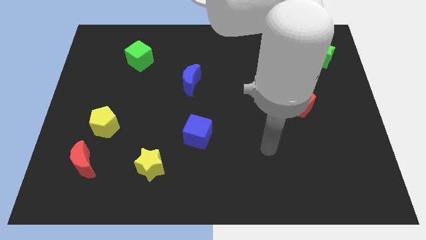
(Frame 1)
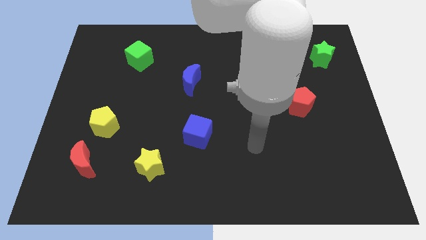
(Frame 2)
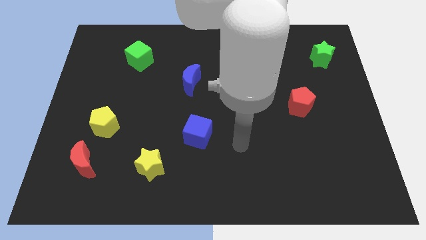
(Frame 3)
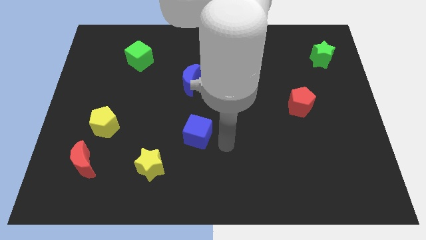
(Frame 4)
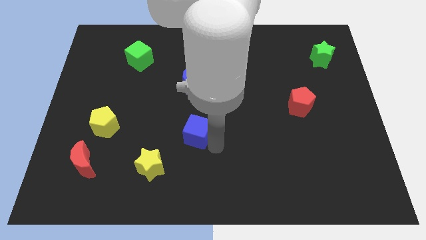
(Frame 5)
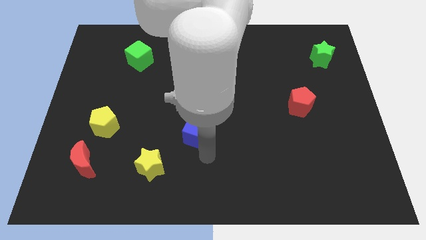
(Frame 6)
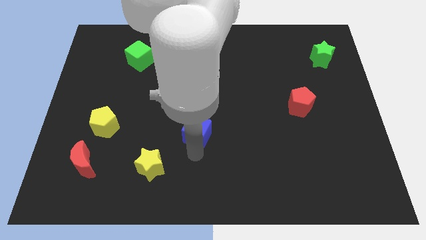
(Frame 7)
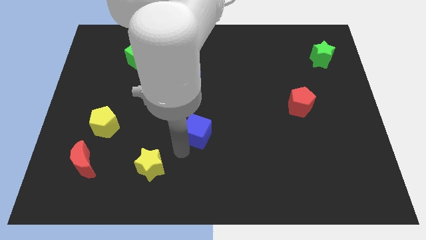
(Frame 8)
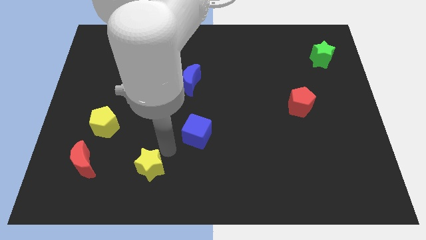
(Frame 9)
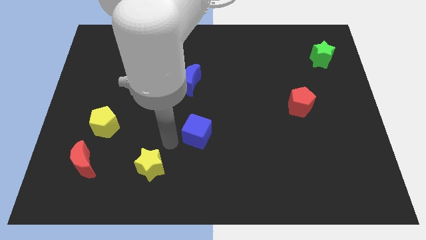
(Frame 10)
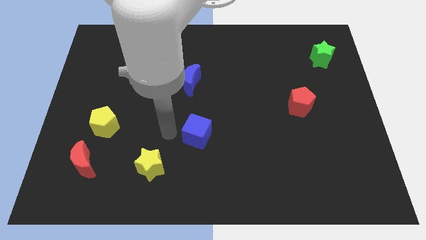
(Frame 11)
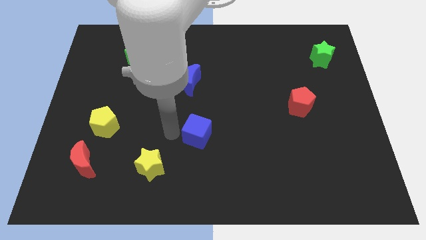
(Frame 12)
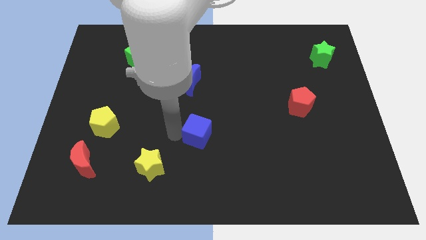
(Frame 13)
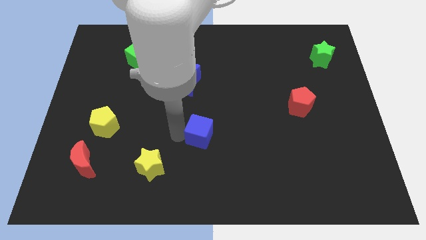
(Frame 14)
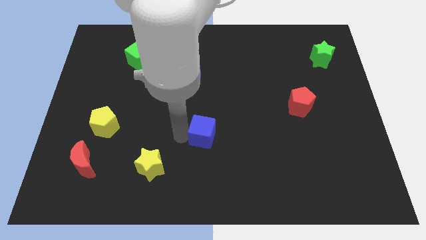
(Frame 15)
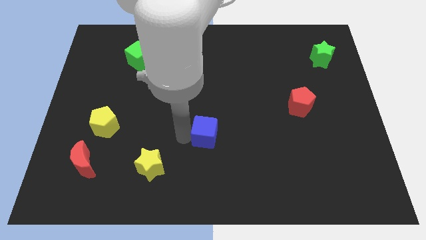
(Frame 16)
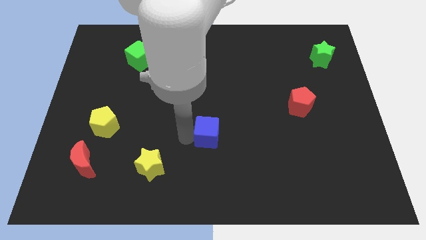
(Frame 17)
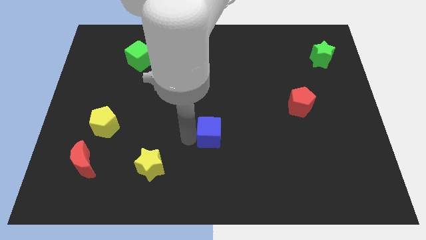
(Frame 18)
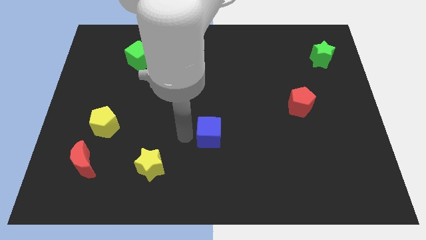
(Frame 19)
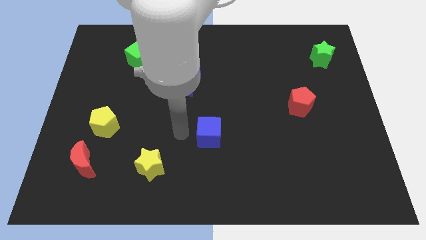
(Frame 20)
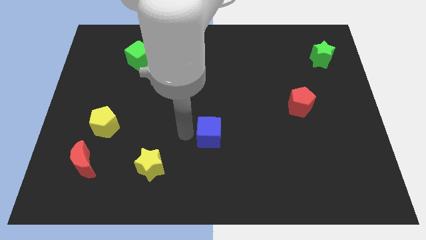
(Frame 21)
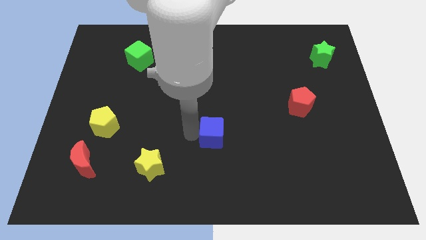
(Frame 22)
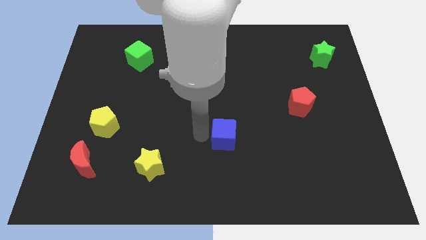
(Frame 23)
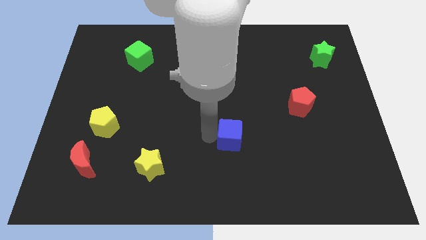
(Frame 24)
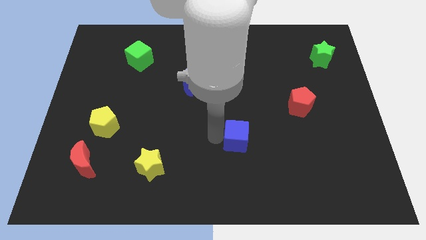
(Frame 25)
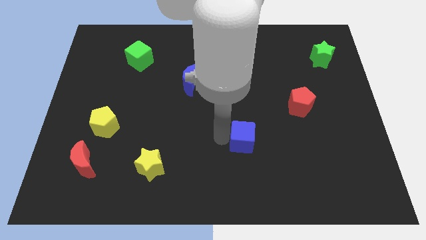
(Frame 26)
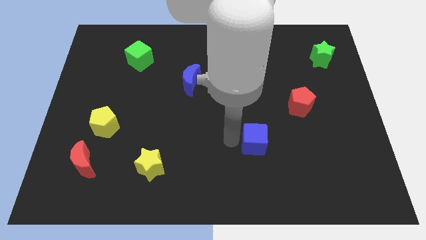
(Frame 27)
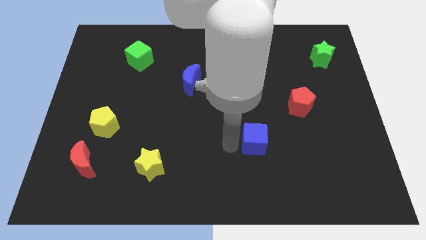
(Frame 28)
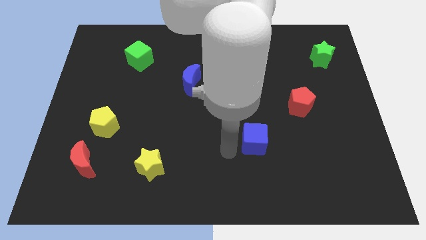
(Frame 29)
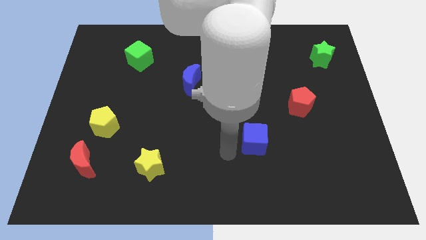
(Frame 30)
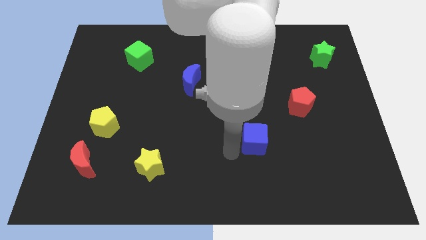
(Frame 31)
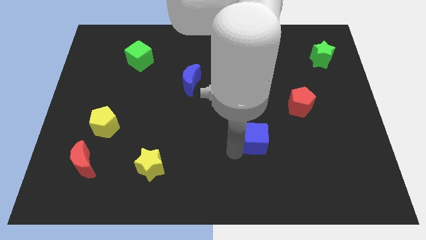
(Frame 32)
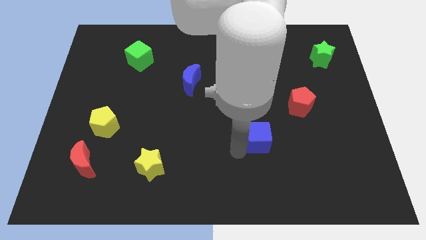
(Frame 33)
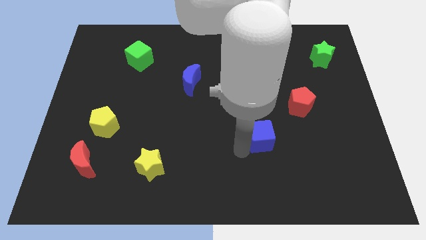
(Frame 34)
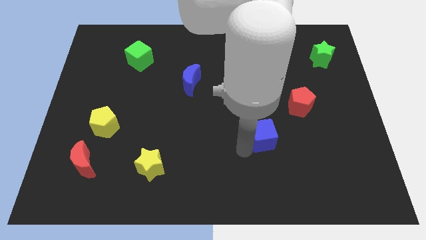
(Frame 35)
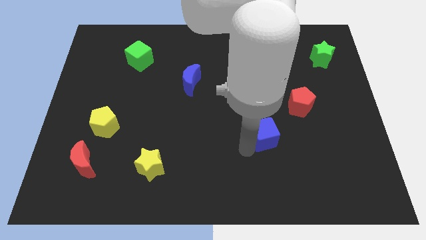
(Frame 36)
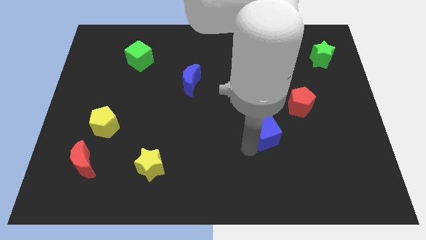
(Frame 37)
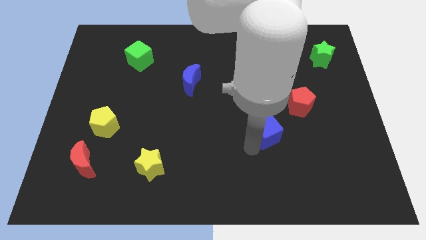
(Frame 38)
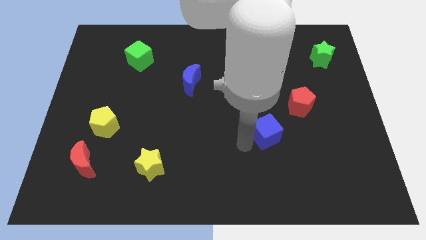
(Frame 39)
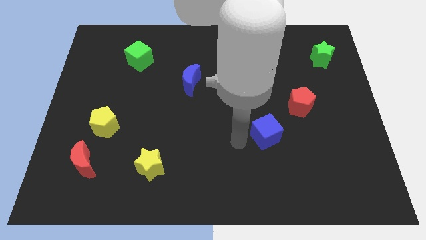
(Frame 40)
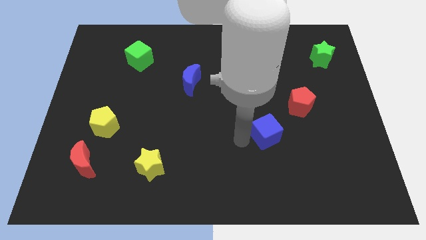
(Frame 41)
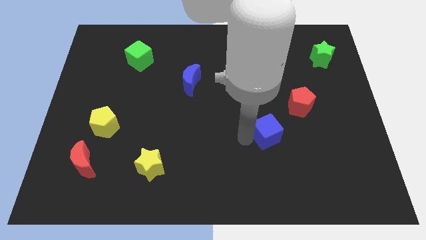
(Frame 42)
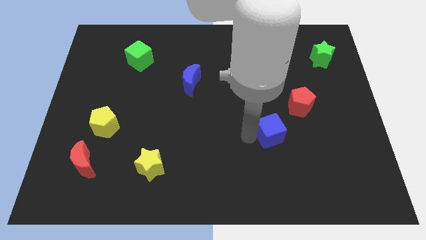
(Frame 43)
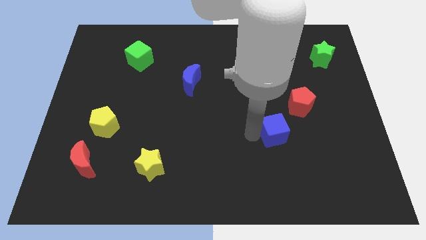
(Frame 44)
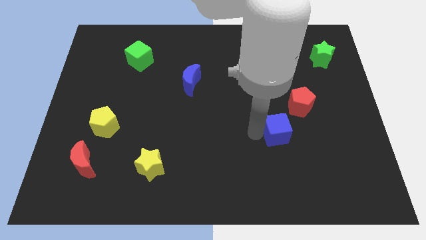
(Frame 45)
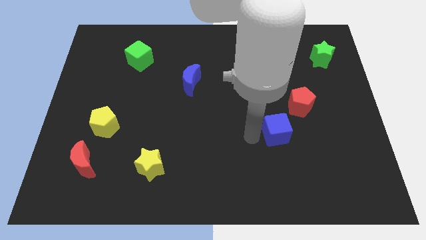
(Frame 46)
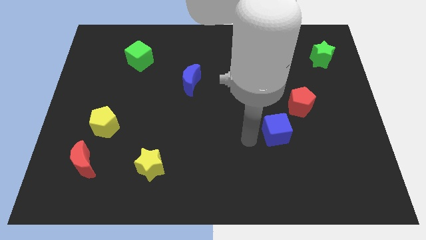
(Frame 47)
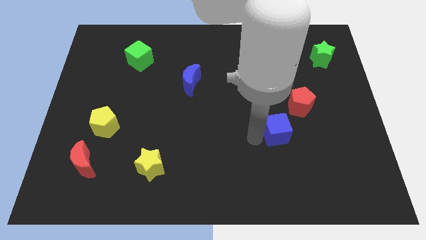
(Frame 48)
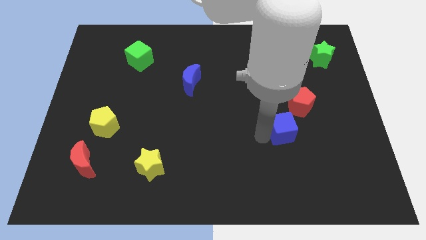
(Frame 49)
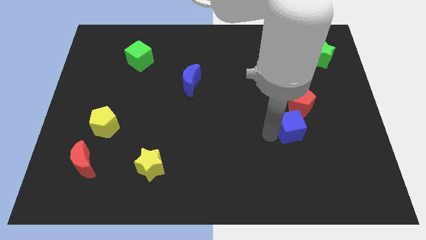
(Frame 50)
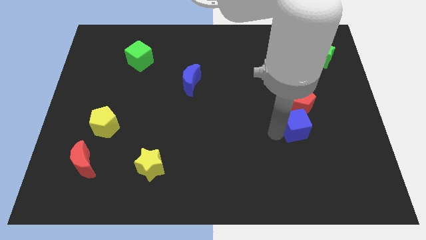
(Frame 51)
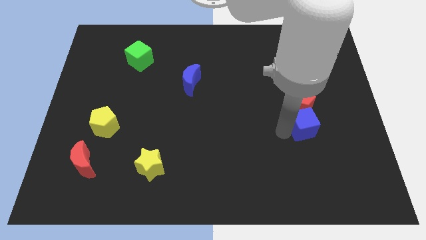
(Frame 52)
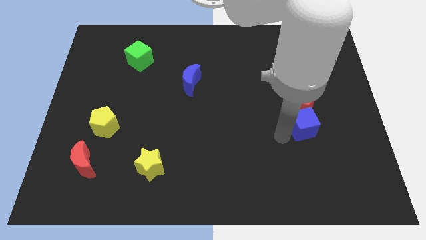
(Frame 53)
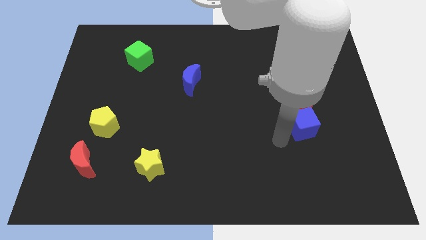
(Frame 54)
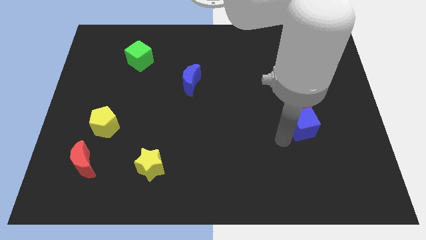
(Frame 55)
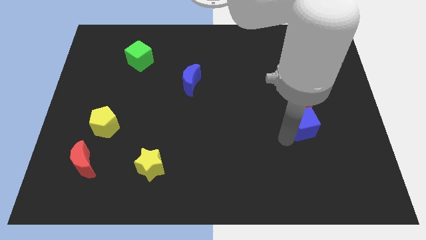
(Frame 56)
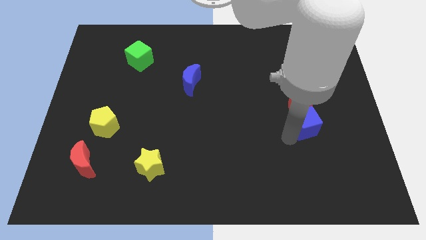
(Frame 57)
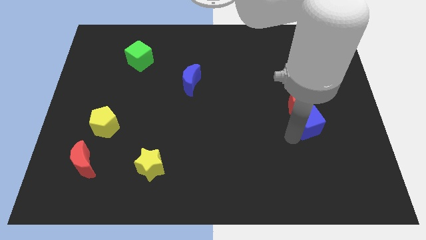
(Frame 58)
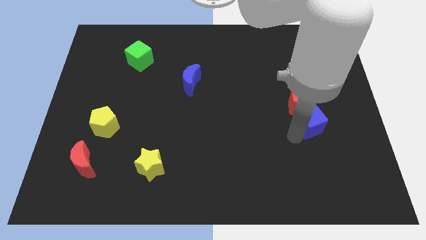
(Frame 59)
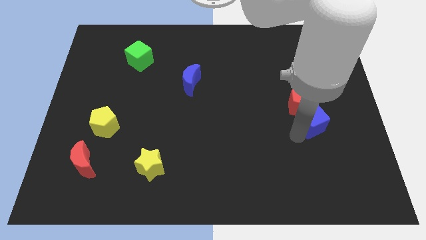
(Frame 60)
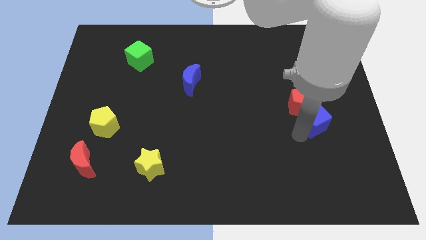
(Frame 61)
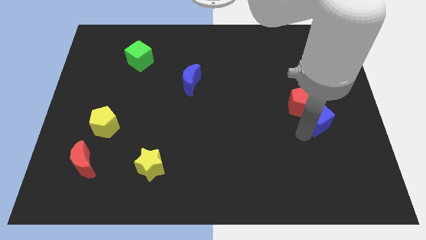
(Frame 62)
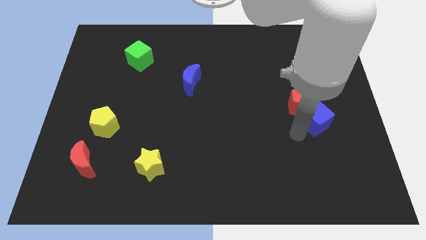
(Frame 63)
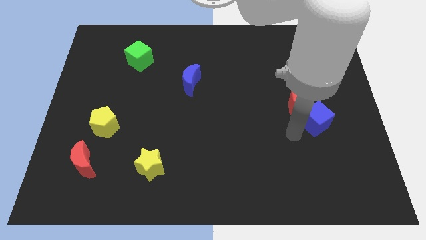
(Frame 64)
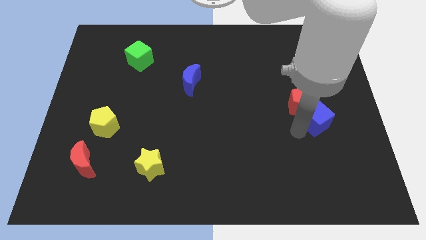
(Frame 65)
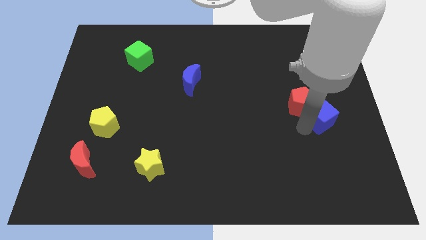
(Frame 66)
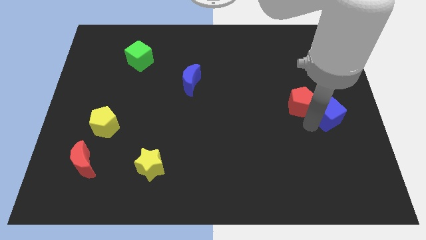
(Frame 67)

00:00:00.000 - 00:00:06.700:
move the blue cube to the right side

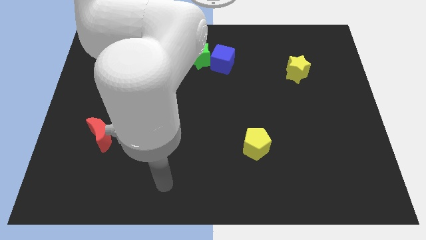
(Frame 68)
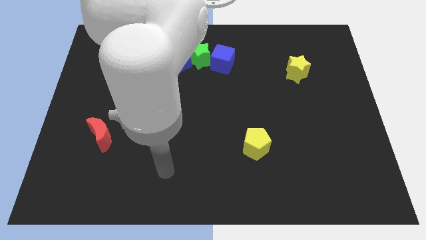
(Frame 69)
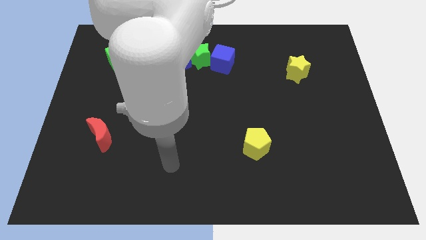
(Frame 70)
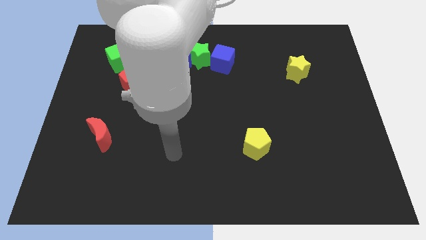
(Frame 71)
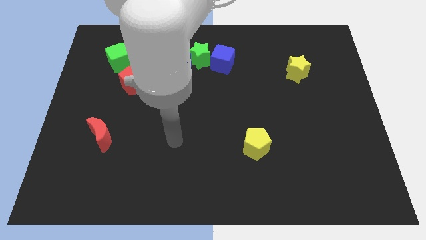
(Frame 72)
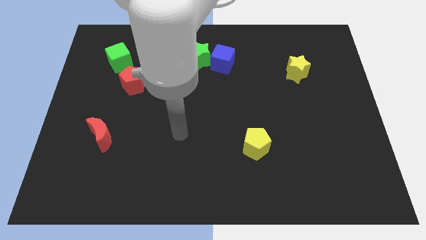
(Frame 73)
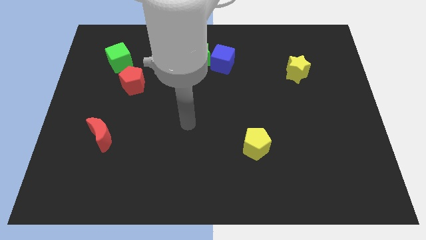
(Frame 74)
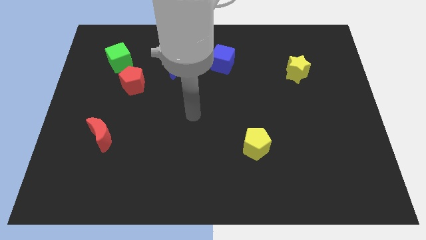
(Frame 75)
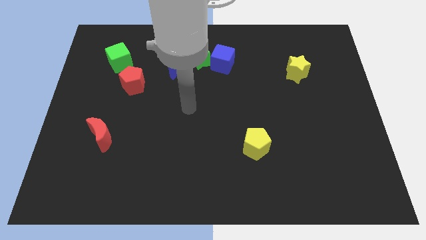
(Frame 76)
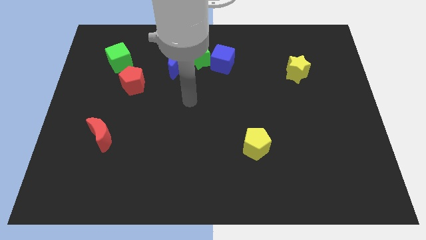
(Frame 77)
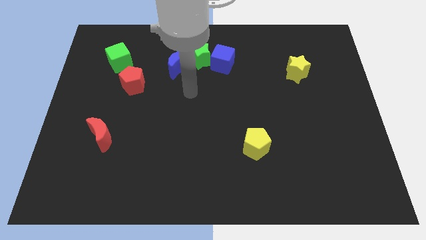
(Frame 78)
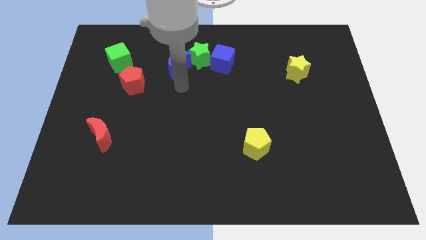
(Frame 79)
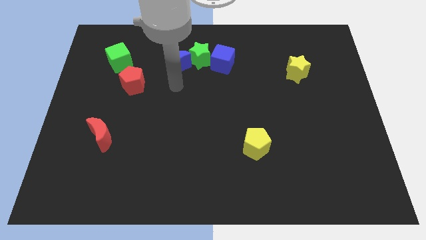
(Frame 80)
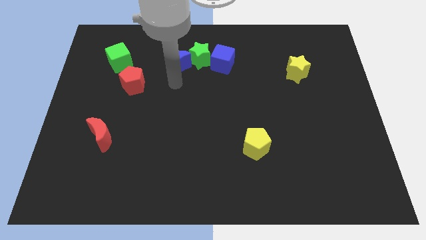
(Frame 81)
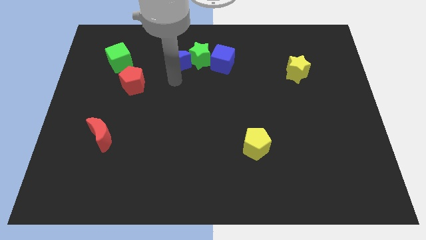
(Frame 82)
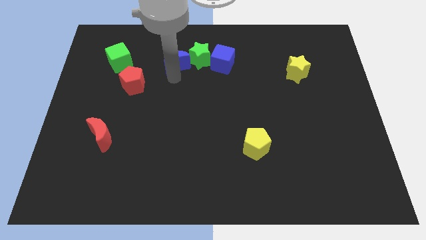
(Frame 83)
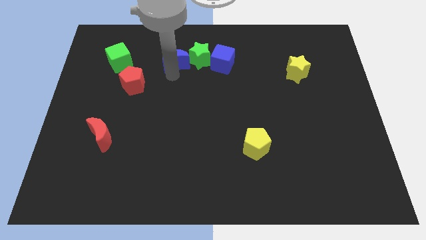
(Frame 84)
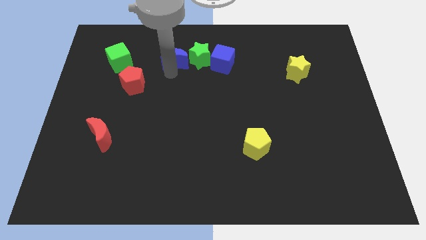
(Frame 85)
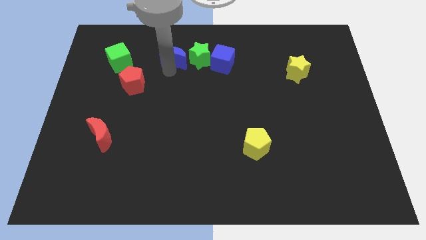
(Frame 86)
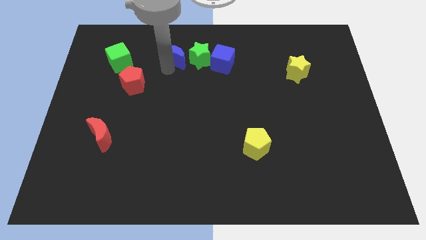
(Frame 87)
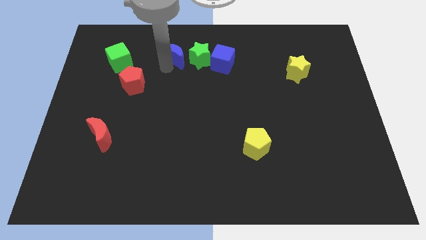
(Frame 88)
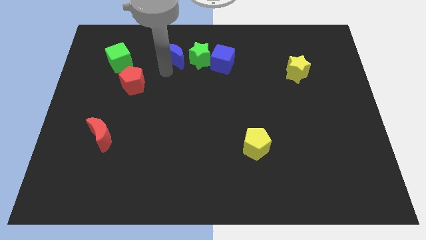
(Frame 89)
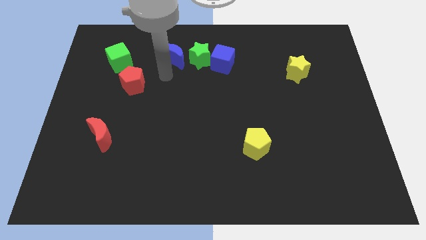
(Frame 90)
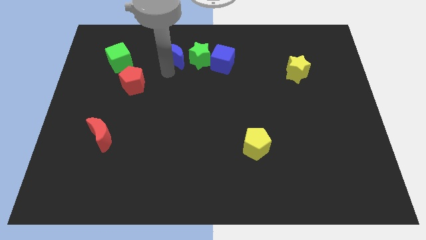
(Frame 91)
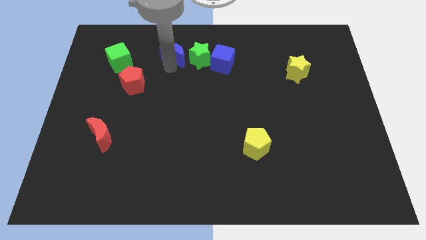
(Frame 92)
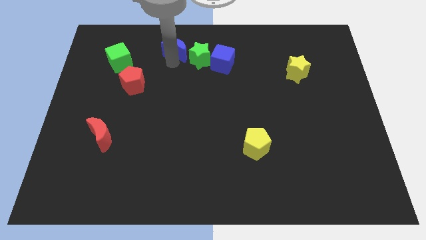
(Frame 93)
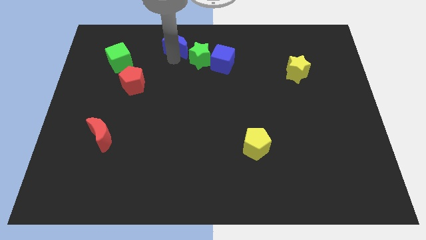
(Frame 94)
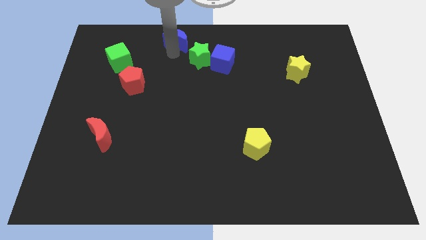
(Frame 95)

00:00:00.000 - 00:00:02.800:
move the blue moon to the towards your base
